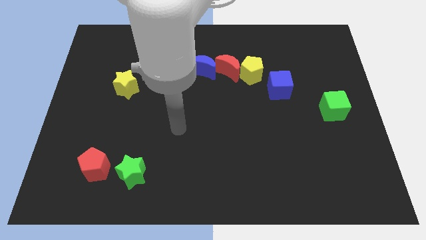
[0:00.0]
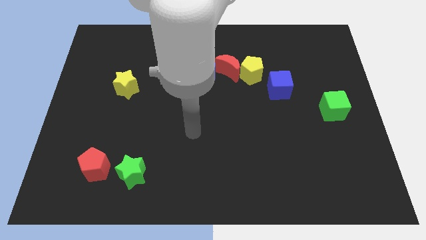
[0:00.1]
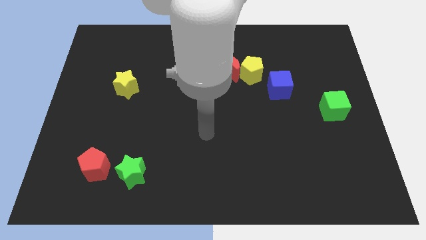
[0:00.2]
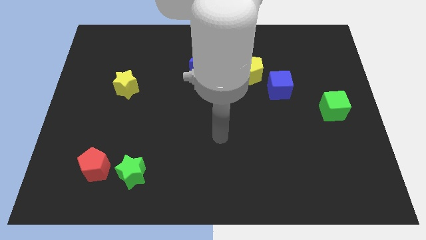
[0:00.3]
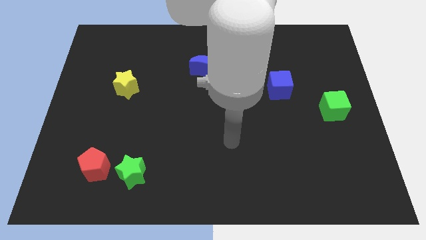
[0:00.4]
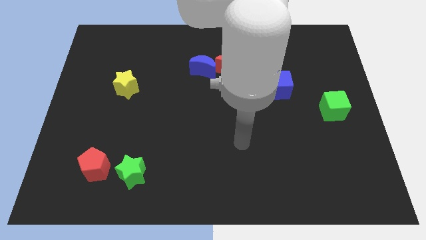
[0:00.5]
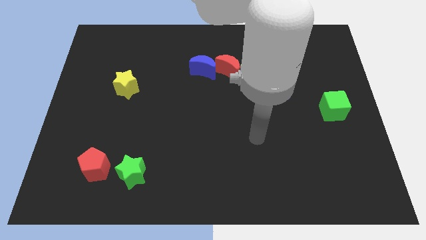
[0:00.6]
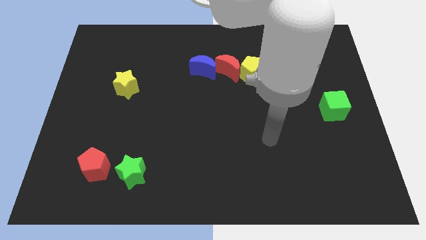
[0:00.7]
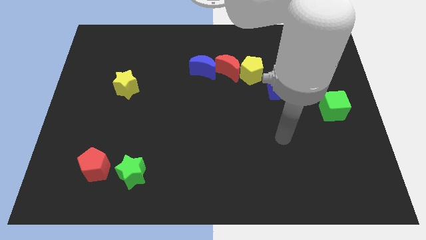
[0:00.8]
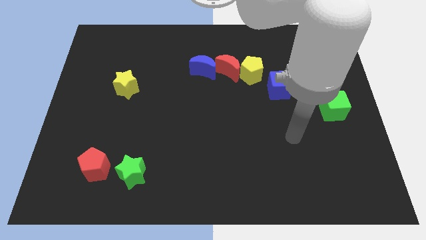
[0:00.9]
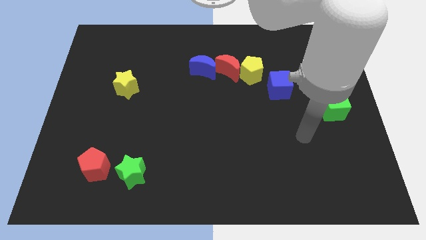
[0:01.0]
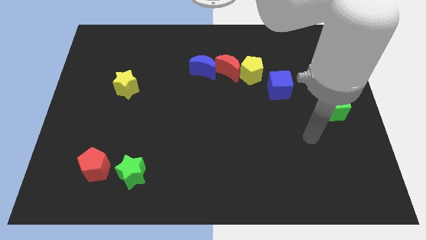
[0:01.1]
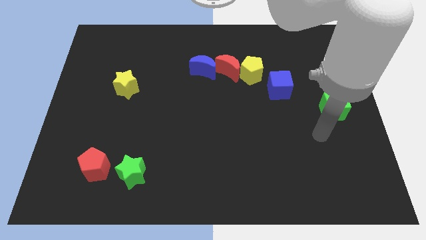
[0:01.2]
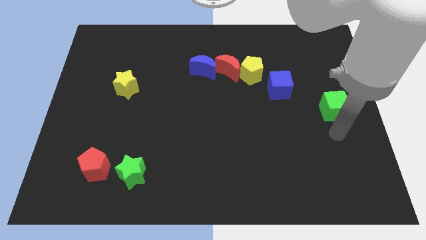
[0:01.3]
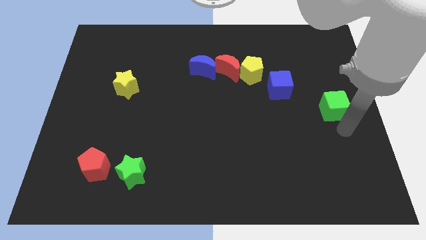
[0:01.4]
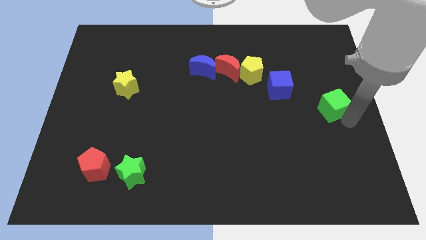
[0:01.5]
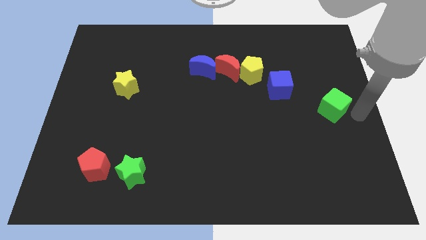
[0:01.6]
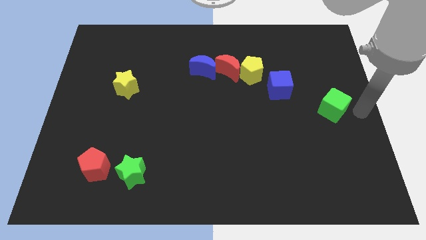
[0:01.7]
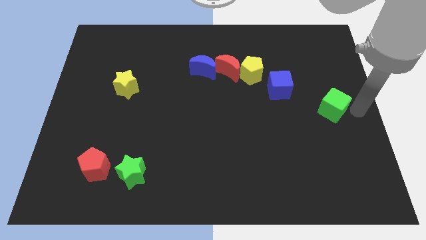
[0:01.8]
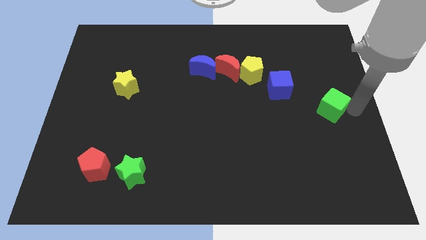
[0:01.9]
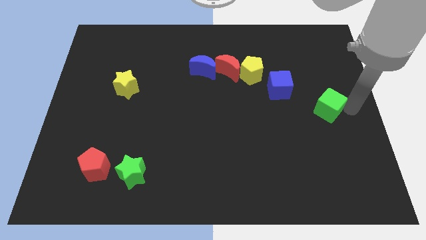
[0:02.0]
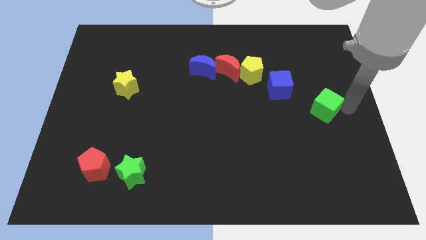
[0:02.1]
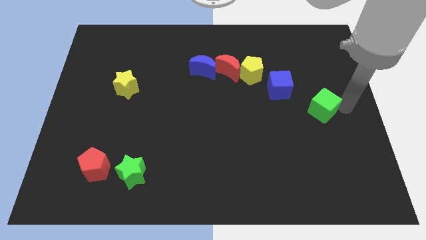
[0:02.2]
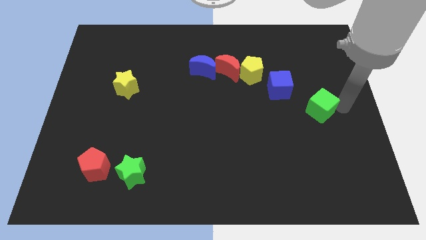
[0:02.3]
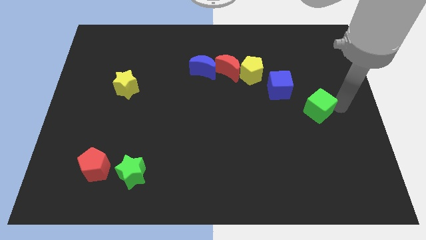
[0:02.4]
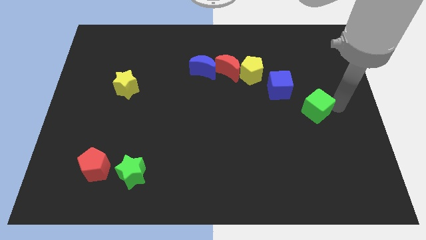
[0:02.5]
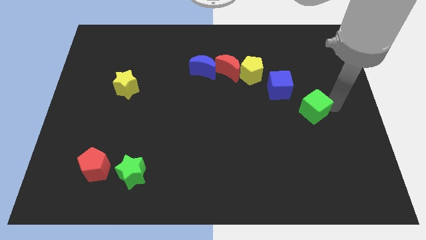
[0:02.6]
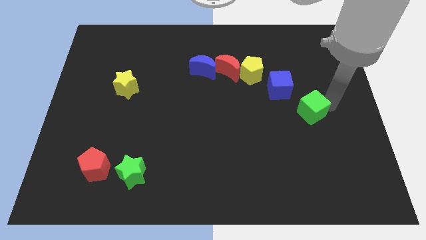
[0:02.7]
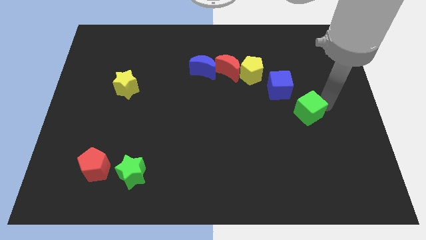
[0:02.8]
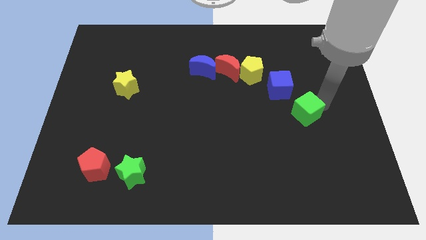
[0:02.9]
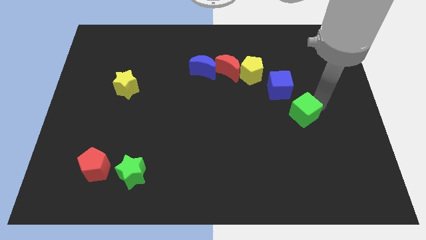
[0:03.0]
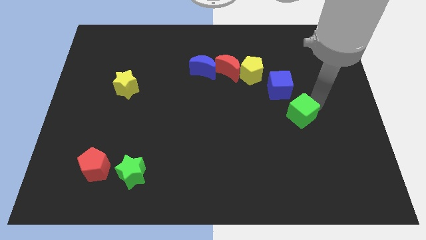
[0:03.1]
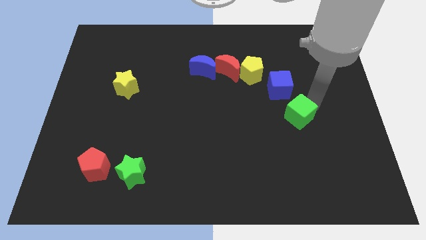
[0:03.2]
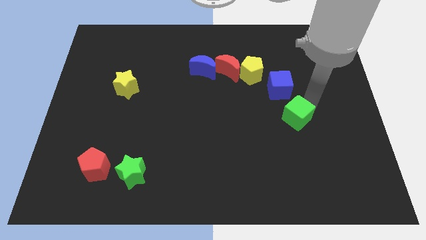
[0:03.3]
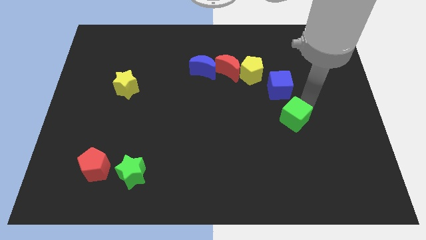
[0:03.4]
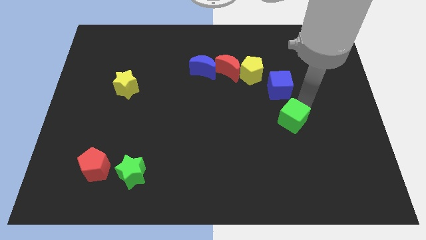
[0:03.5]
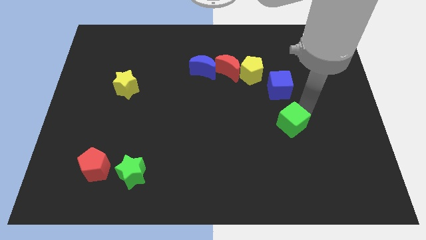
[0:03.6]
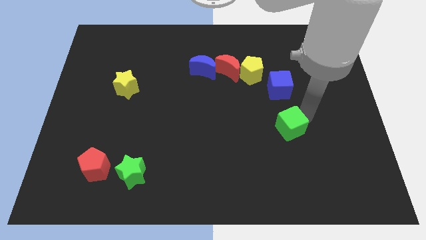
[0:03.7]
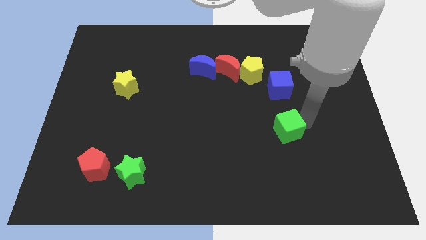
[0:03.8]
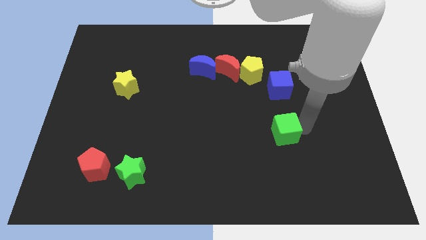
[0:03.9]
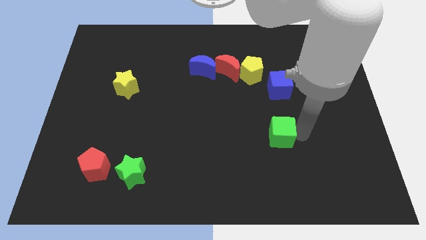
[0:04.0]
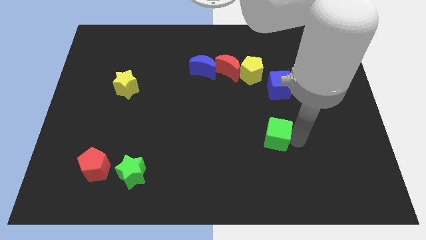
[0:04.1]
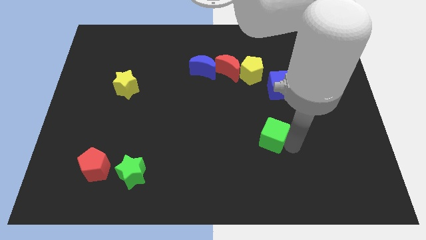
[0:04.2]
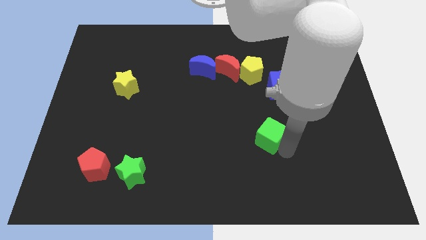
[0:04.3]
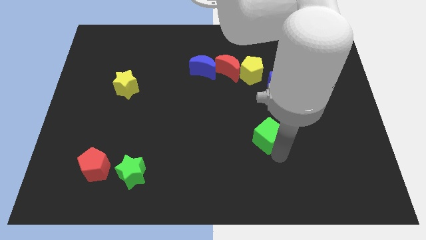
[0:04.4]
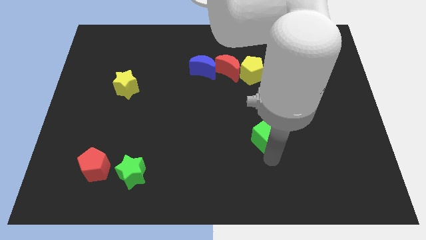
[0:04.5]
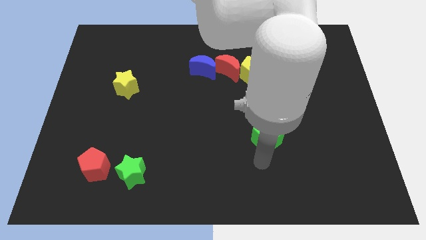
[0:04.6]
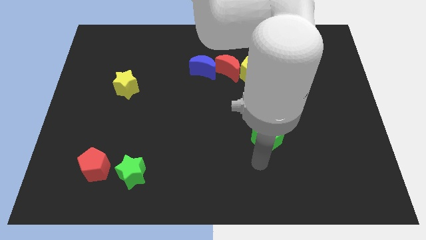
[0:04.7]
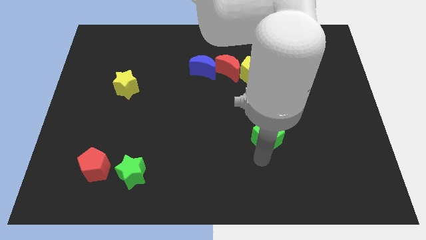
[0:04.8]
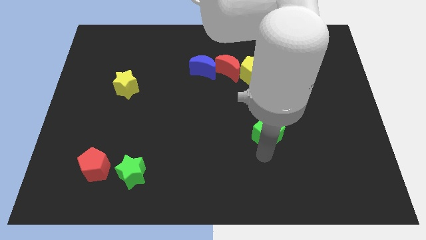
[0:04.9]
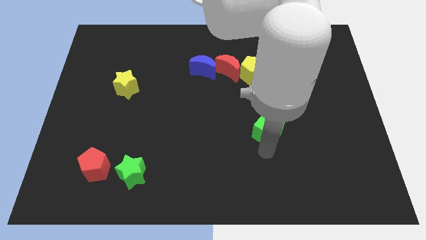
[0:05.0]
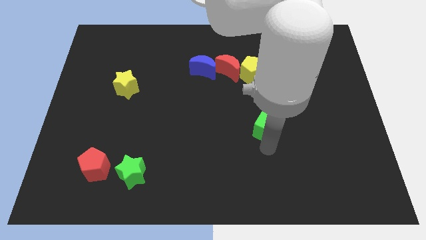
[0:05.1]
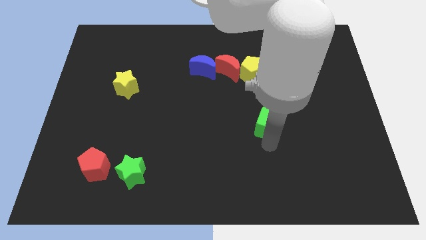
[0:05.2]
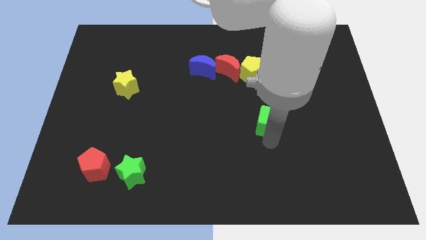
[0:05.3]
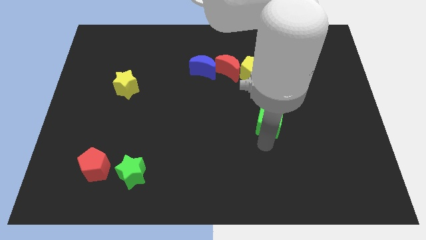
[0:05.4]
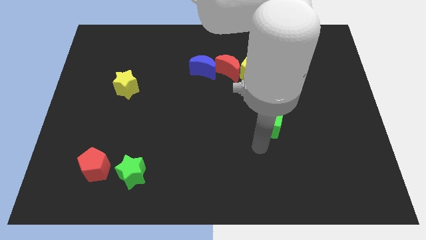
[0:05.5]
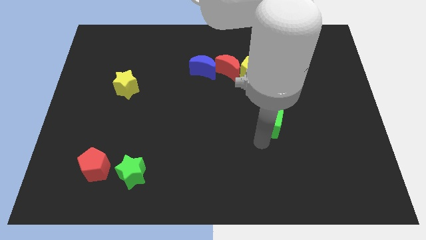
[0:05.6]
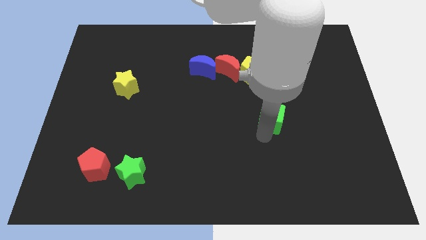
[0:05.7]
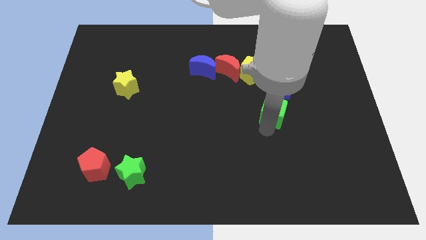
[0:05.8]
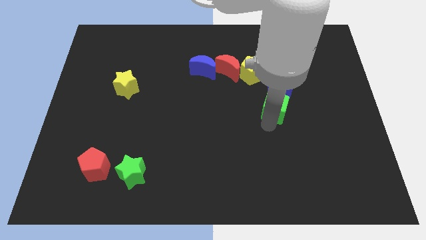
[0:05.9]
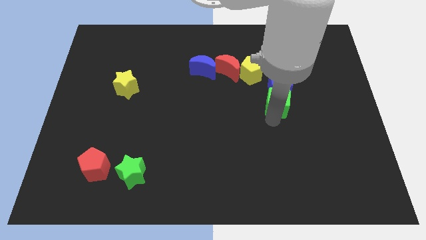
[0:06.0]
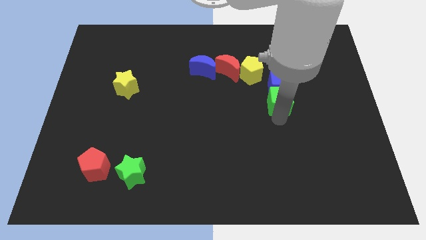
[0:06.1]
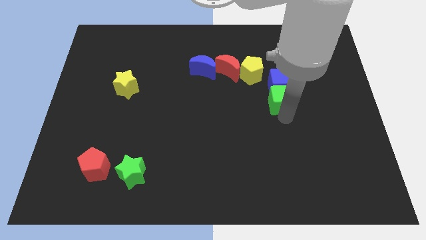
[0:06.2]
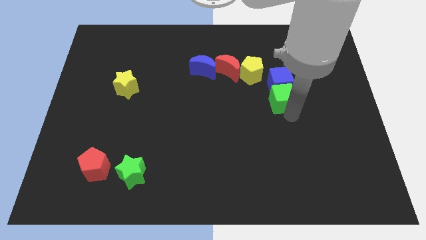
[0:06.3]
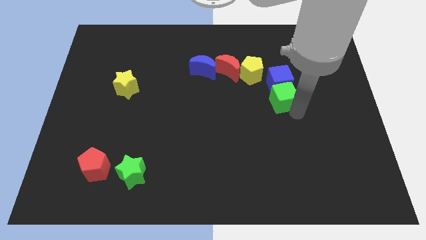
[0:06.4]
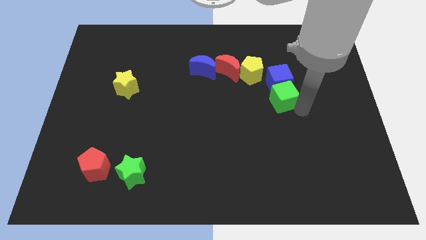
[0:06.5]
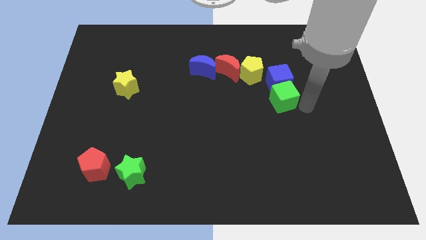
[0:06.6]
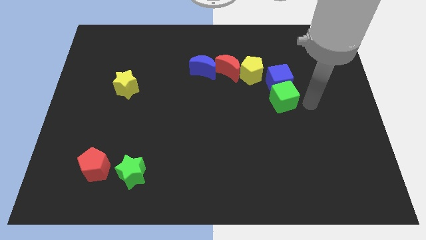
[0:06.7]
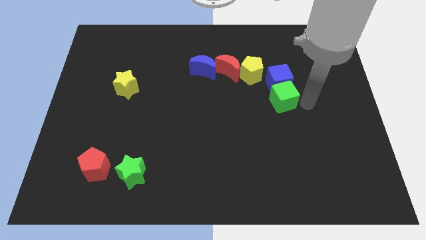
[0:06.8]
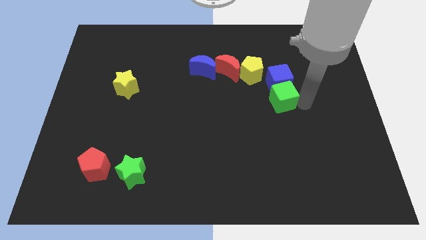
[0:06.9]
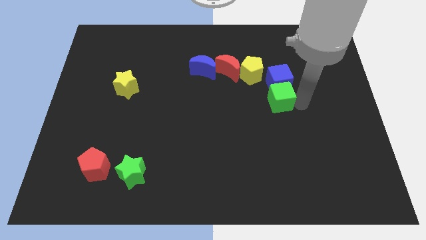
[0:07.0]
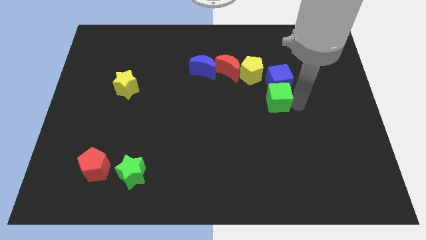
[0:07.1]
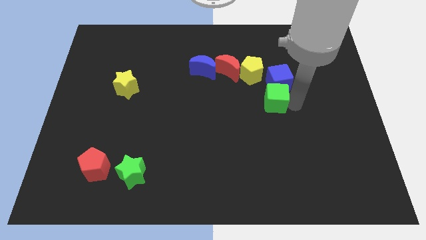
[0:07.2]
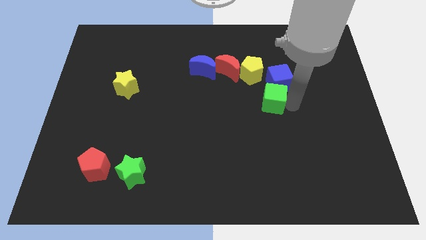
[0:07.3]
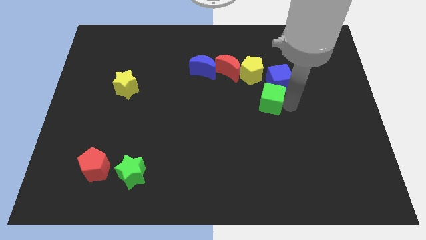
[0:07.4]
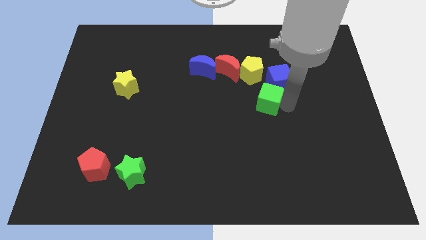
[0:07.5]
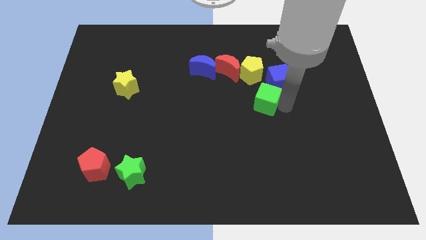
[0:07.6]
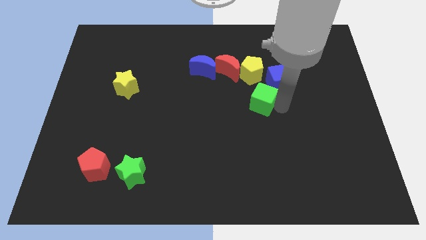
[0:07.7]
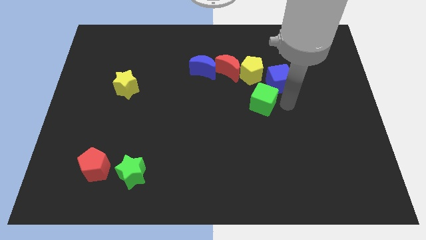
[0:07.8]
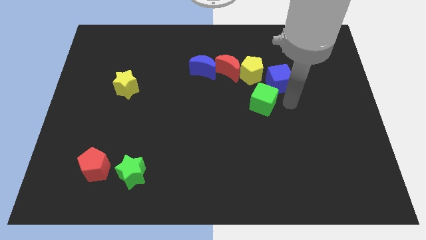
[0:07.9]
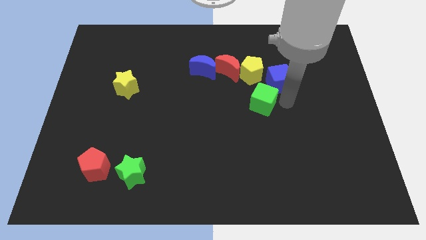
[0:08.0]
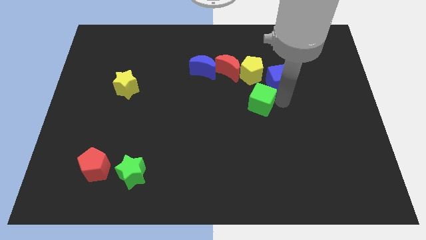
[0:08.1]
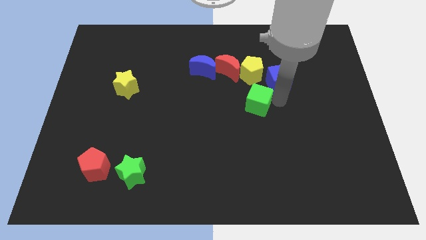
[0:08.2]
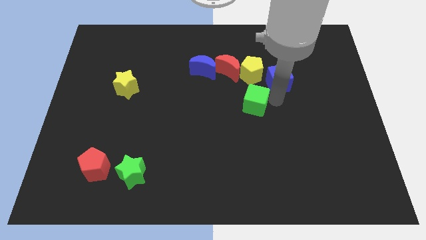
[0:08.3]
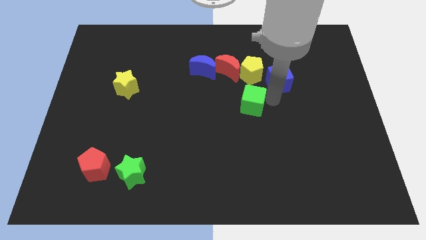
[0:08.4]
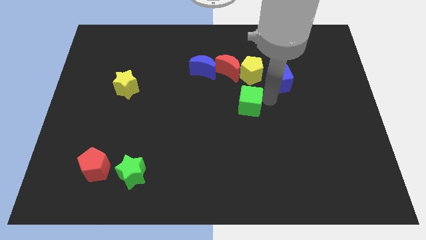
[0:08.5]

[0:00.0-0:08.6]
move the green cube below the red moon
